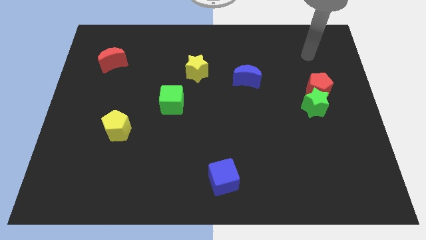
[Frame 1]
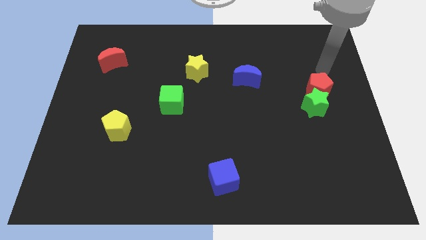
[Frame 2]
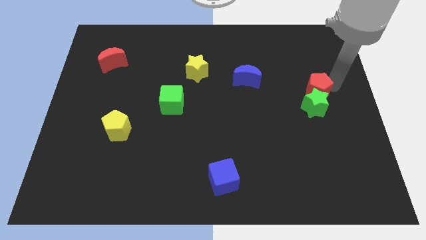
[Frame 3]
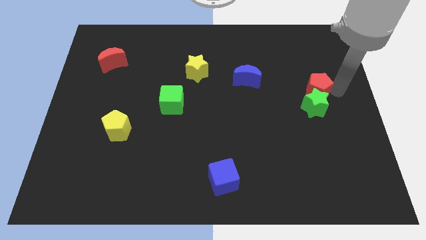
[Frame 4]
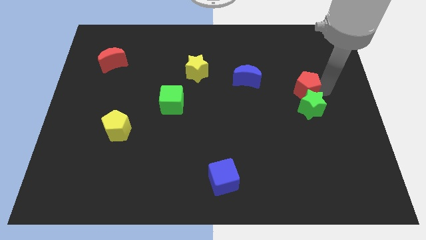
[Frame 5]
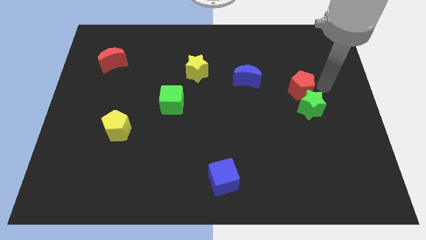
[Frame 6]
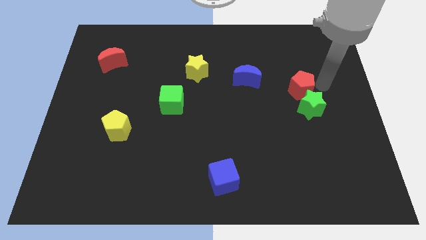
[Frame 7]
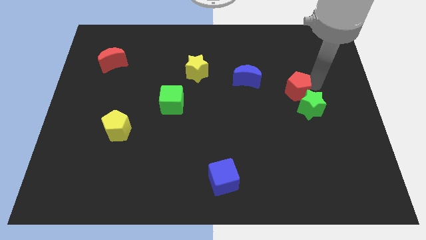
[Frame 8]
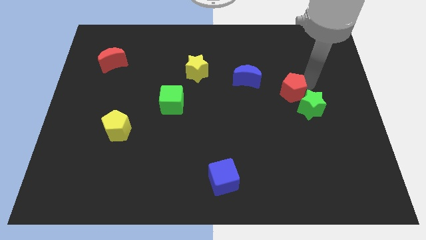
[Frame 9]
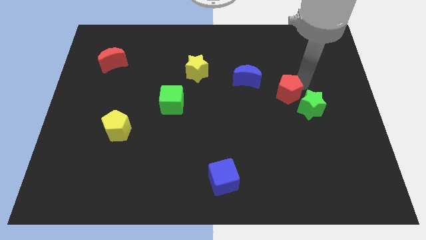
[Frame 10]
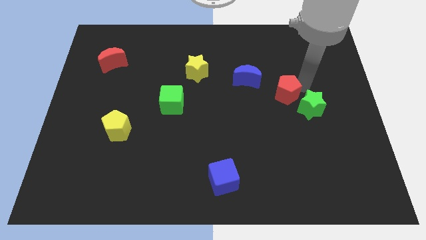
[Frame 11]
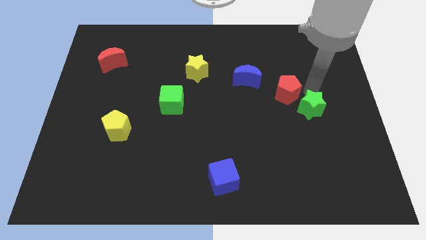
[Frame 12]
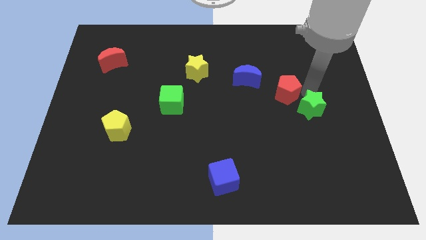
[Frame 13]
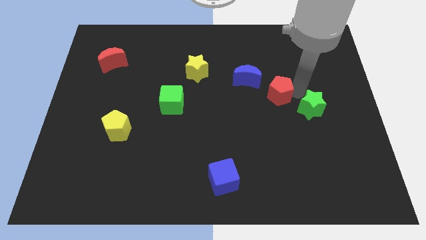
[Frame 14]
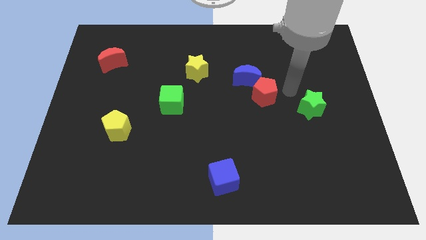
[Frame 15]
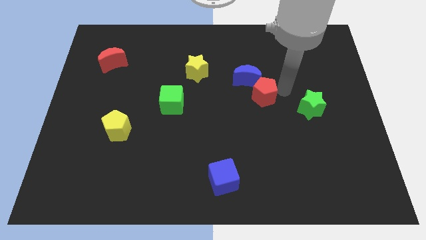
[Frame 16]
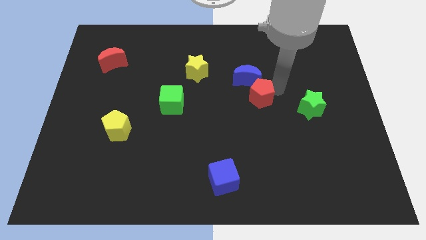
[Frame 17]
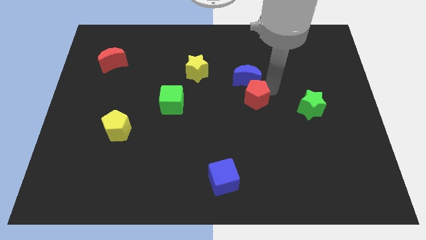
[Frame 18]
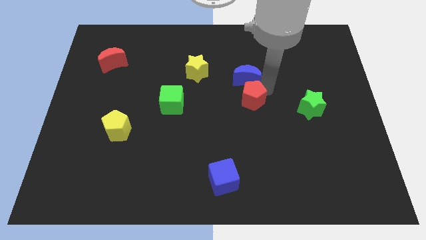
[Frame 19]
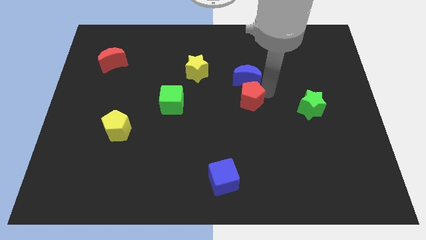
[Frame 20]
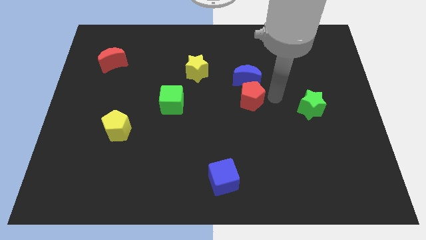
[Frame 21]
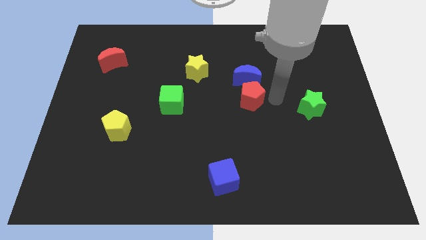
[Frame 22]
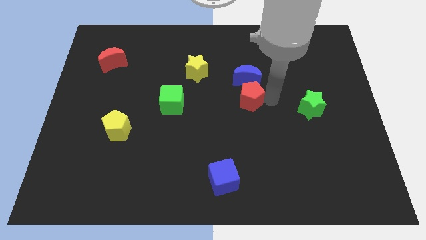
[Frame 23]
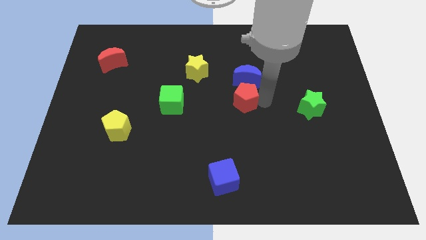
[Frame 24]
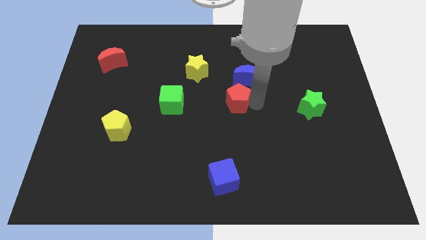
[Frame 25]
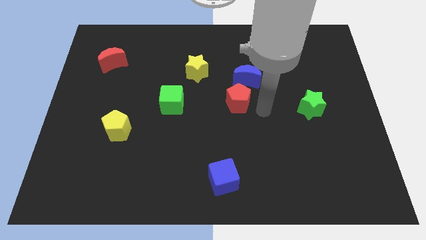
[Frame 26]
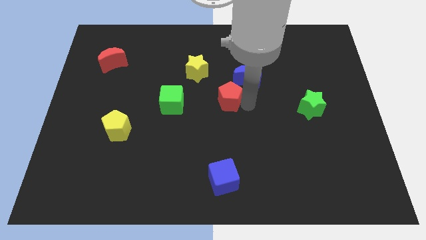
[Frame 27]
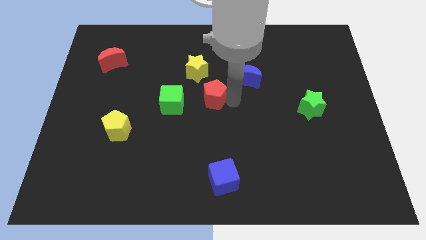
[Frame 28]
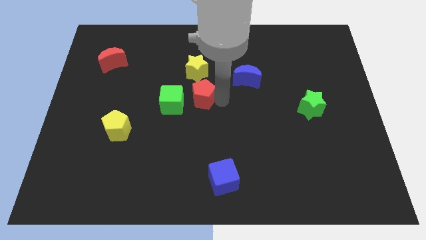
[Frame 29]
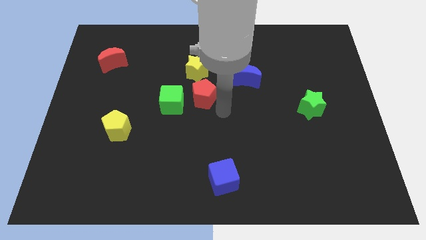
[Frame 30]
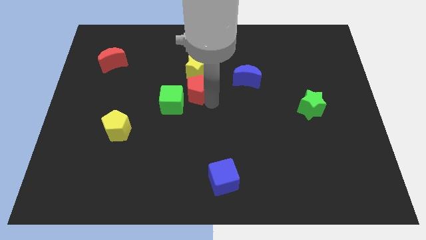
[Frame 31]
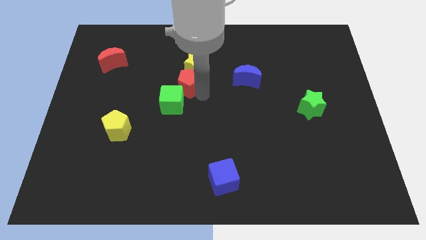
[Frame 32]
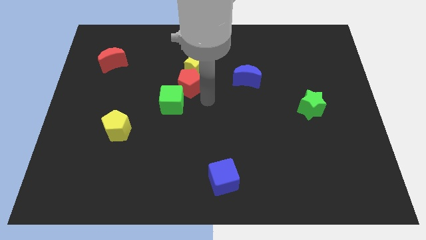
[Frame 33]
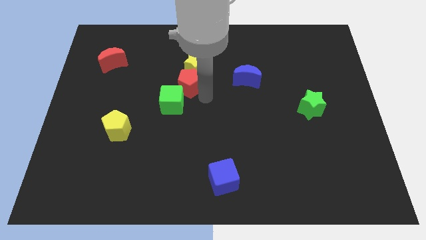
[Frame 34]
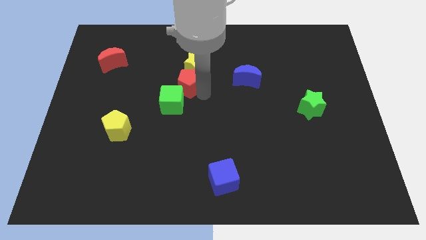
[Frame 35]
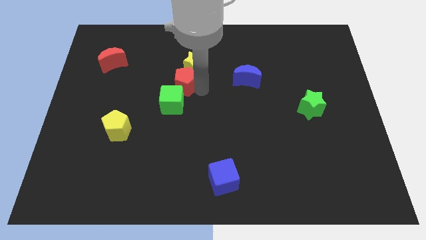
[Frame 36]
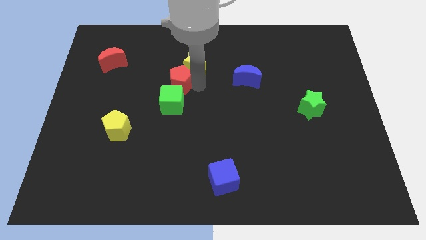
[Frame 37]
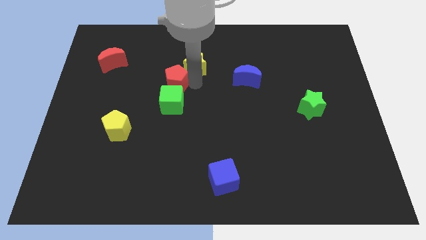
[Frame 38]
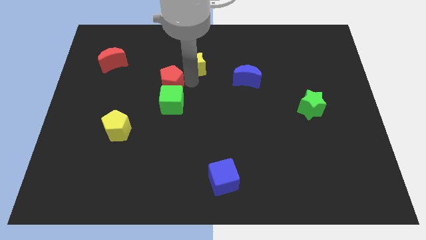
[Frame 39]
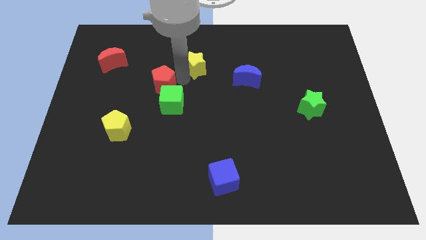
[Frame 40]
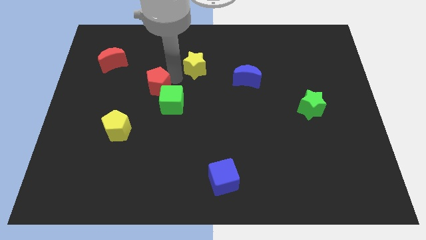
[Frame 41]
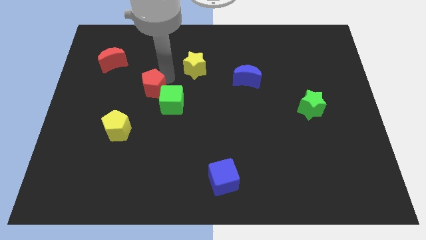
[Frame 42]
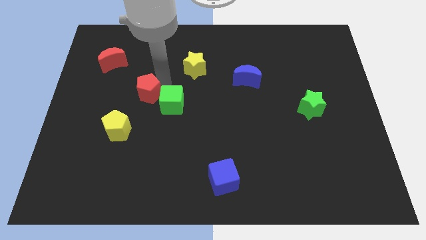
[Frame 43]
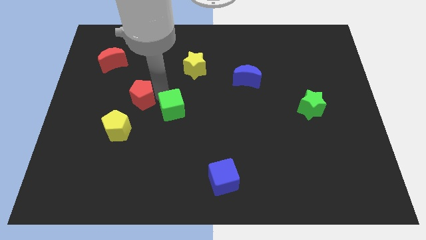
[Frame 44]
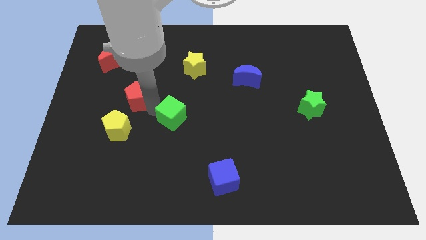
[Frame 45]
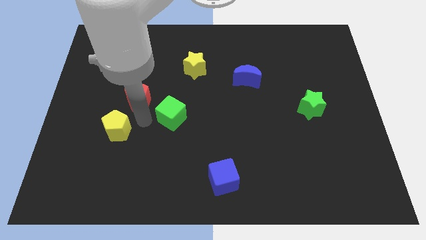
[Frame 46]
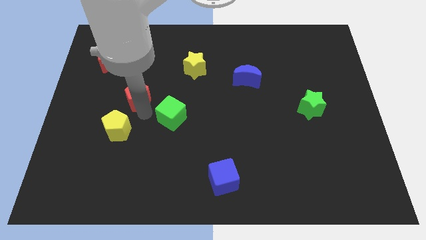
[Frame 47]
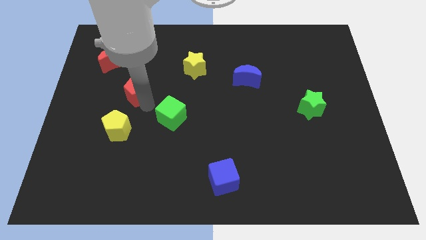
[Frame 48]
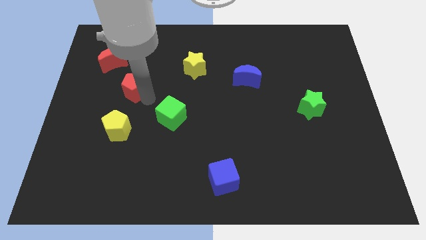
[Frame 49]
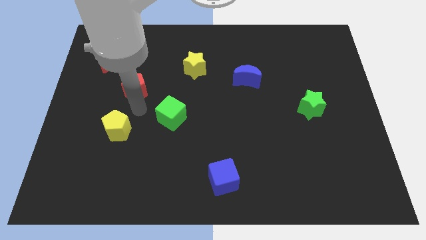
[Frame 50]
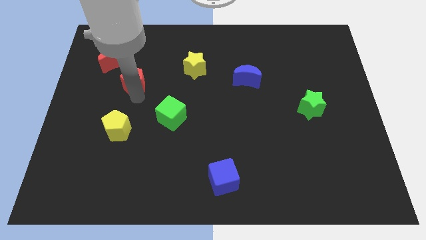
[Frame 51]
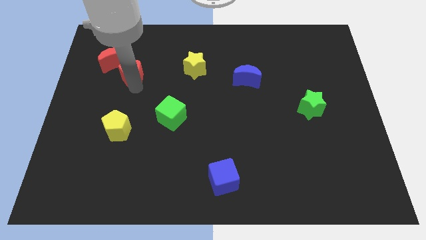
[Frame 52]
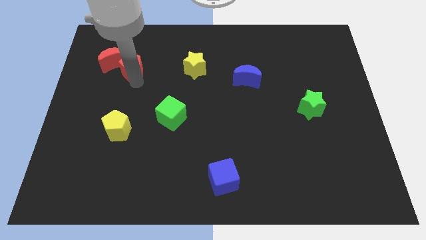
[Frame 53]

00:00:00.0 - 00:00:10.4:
slide the red pentagon next to the red moon

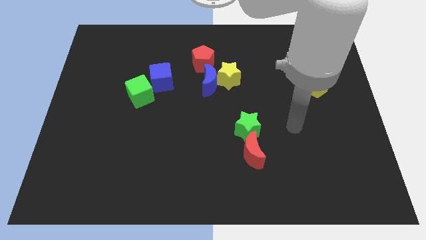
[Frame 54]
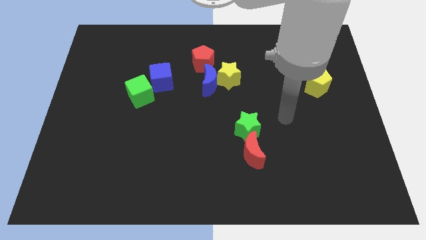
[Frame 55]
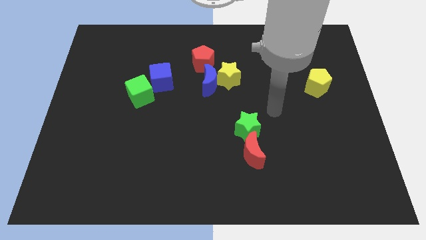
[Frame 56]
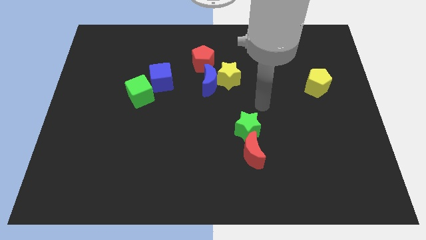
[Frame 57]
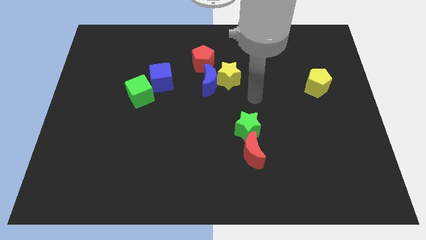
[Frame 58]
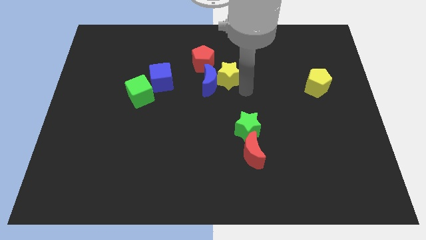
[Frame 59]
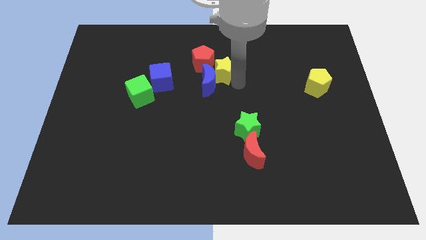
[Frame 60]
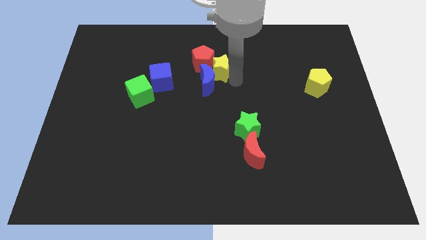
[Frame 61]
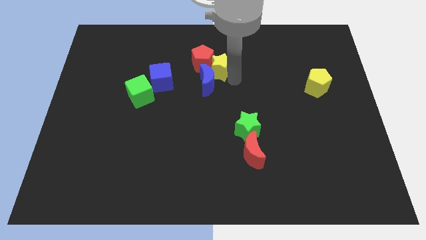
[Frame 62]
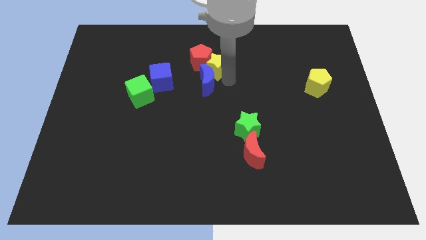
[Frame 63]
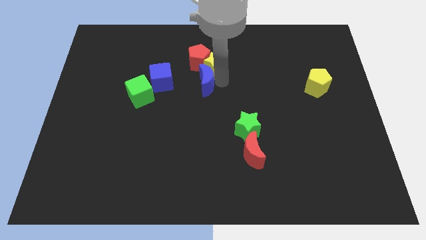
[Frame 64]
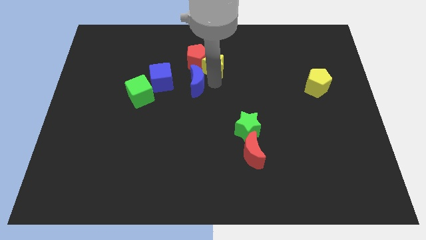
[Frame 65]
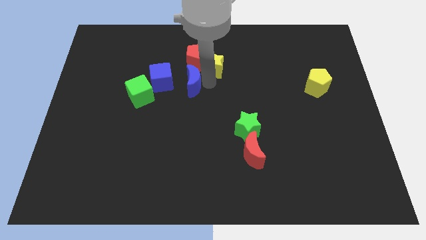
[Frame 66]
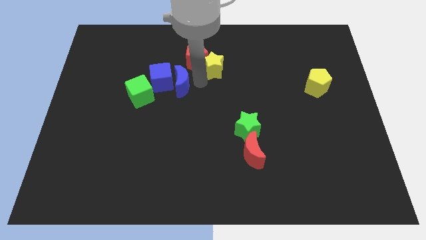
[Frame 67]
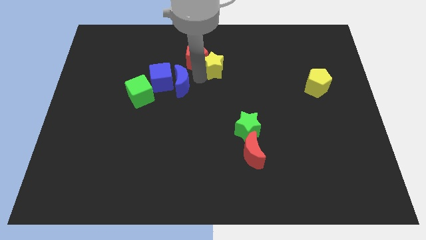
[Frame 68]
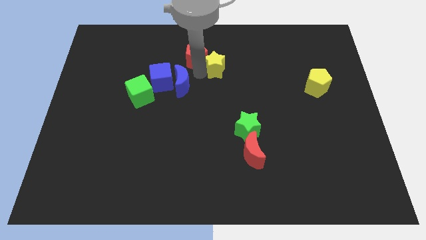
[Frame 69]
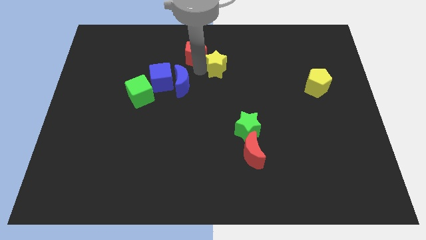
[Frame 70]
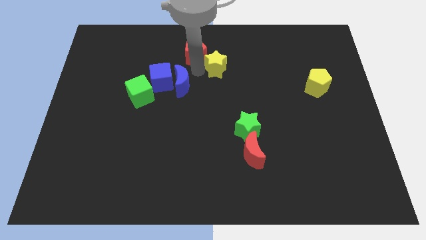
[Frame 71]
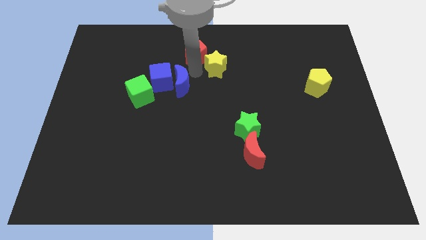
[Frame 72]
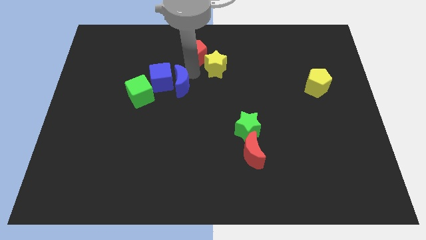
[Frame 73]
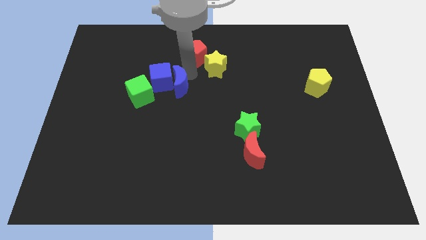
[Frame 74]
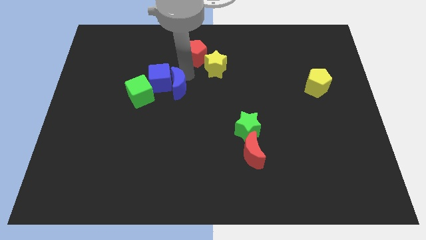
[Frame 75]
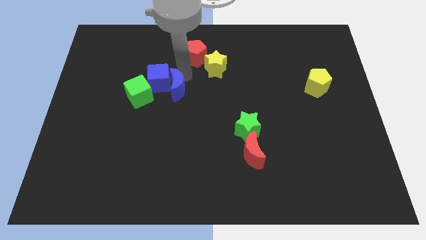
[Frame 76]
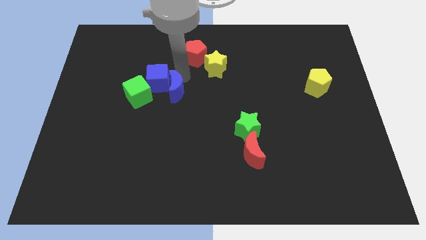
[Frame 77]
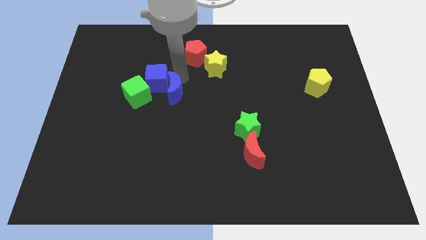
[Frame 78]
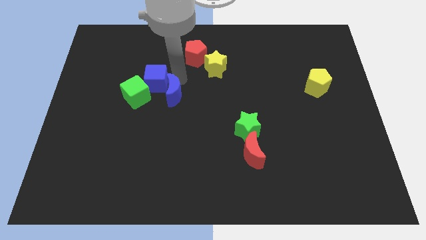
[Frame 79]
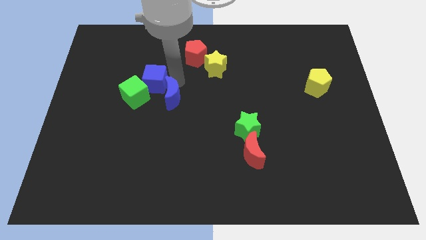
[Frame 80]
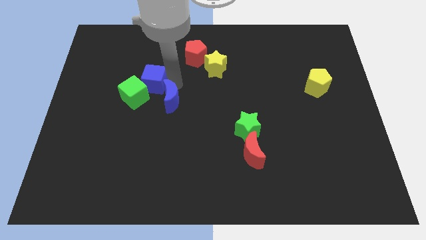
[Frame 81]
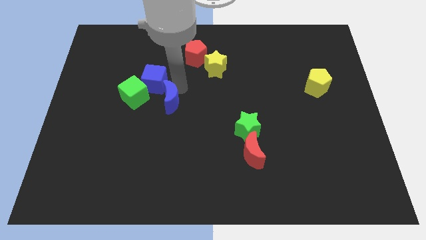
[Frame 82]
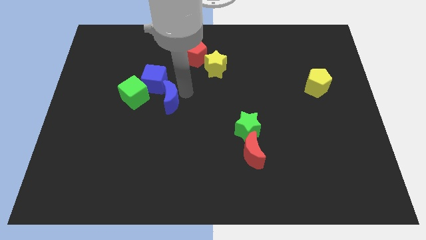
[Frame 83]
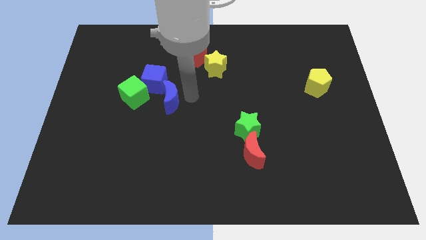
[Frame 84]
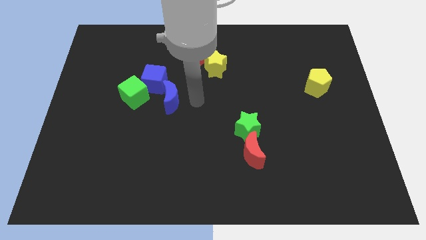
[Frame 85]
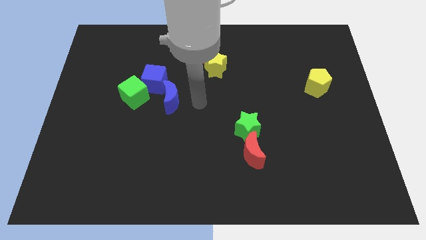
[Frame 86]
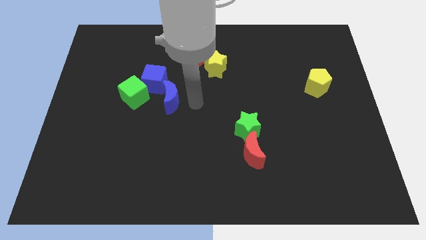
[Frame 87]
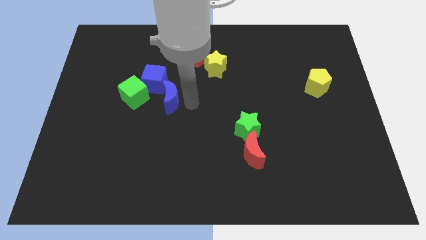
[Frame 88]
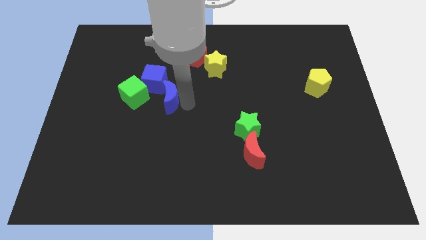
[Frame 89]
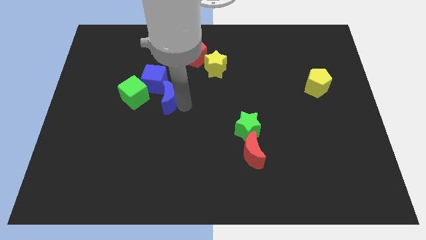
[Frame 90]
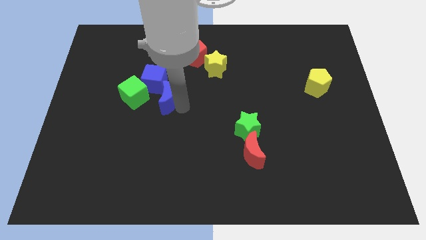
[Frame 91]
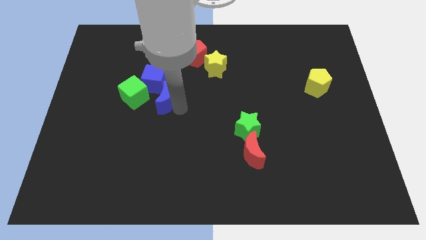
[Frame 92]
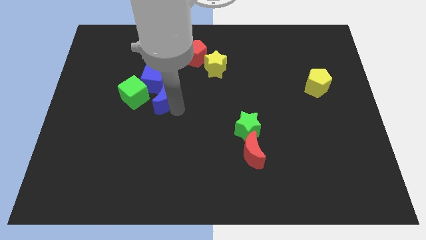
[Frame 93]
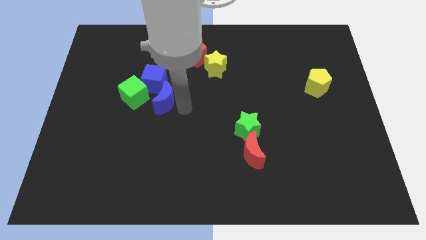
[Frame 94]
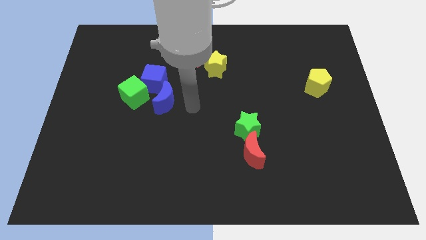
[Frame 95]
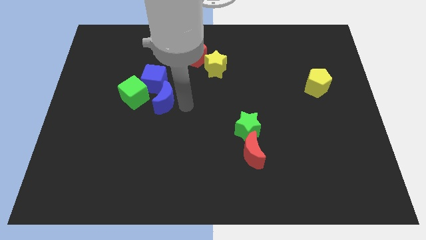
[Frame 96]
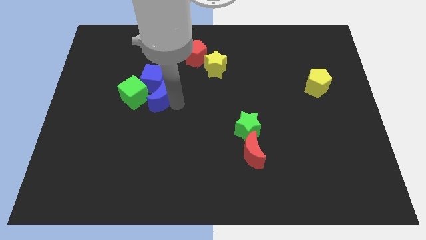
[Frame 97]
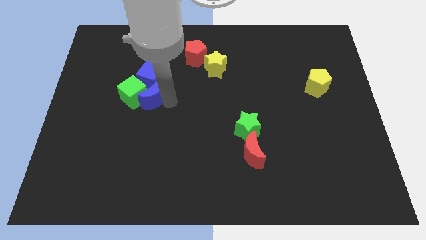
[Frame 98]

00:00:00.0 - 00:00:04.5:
slide the blue moon to the green cube
